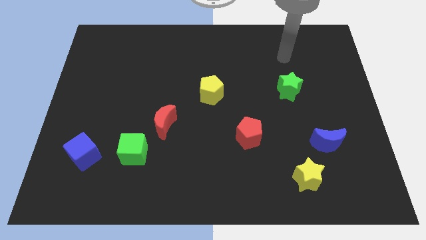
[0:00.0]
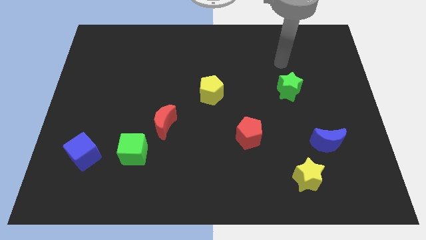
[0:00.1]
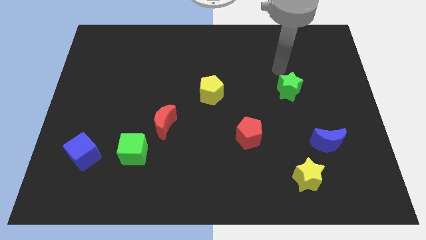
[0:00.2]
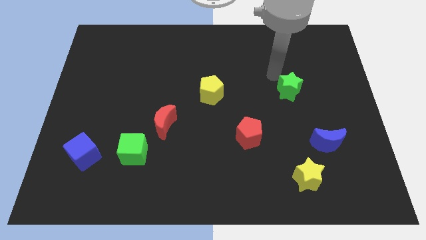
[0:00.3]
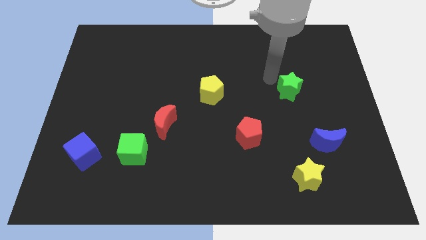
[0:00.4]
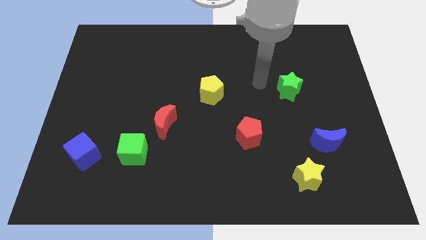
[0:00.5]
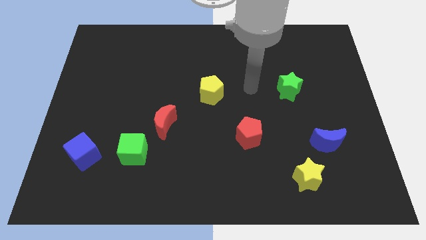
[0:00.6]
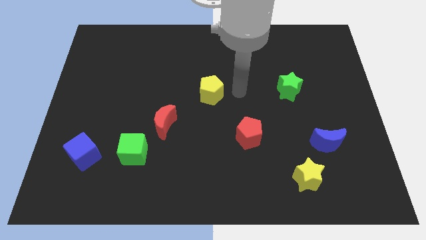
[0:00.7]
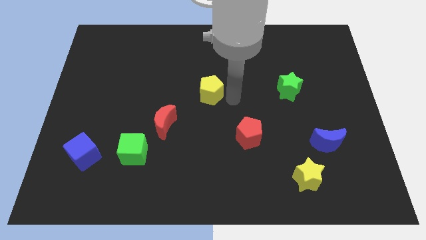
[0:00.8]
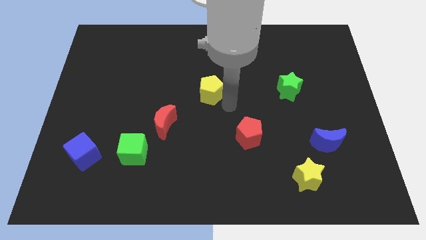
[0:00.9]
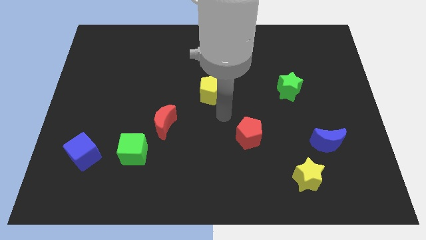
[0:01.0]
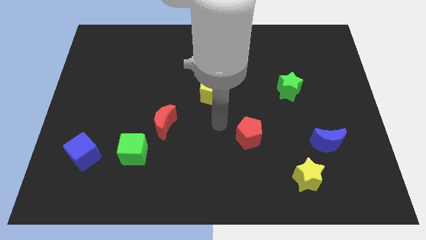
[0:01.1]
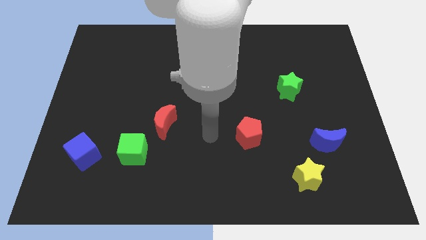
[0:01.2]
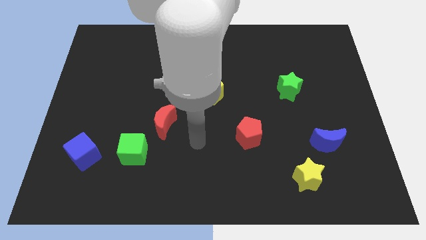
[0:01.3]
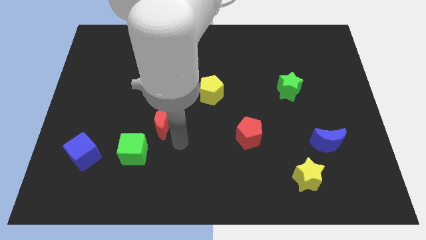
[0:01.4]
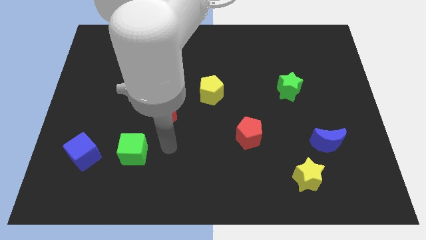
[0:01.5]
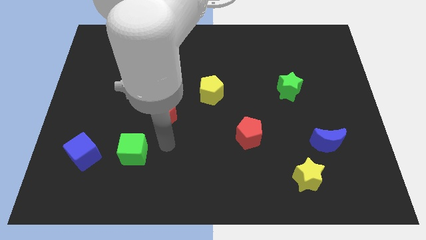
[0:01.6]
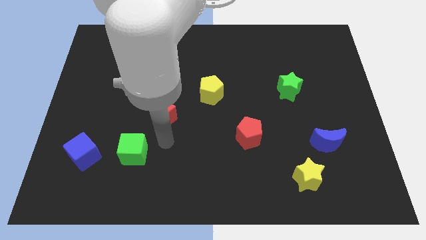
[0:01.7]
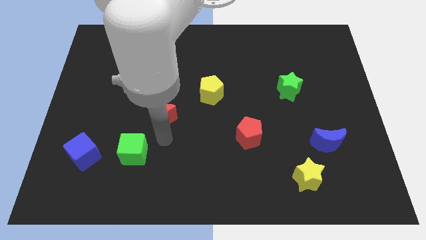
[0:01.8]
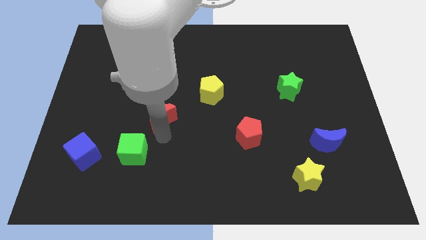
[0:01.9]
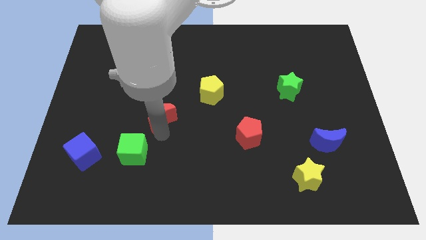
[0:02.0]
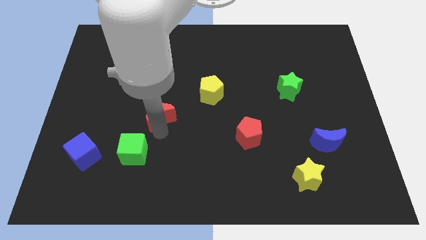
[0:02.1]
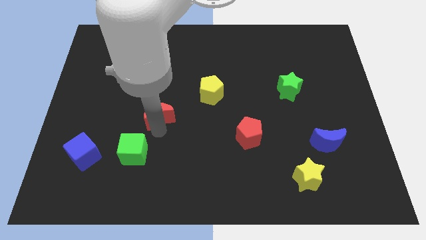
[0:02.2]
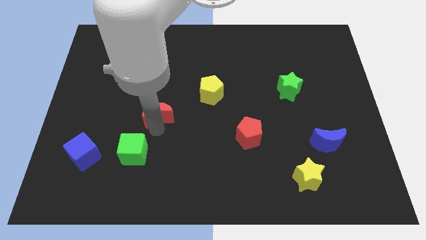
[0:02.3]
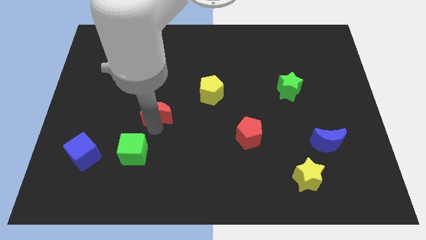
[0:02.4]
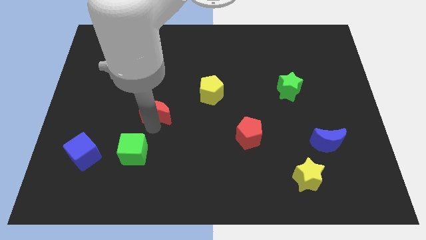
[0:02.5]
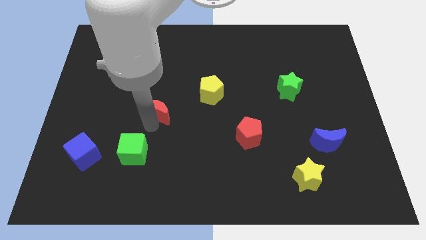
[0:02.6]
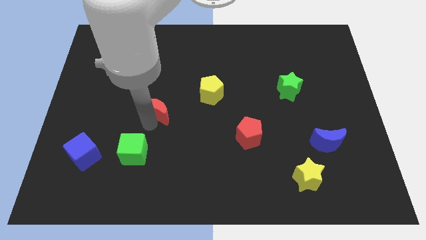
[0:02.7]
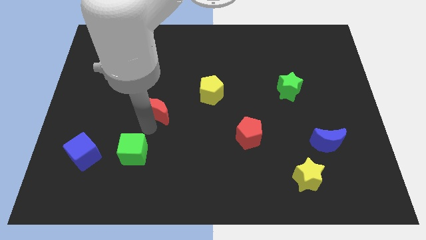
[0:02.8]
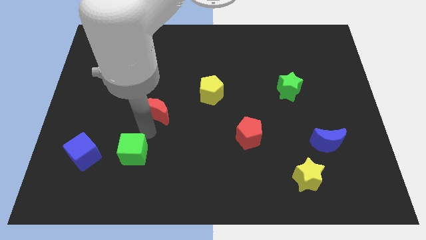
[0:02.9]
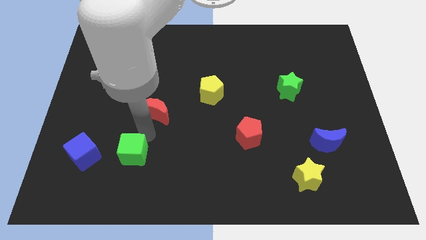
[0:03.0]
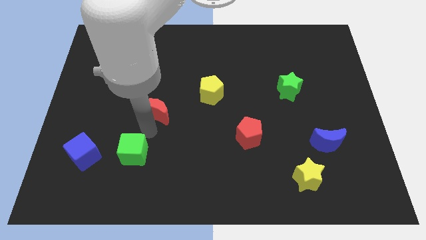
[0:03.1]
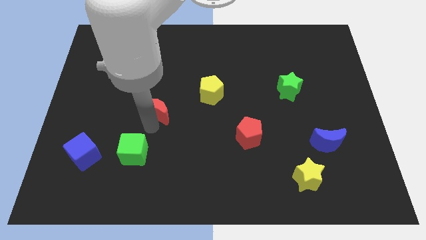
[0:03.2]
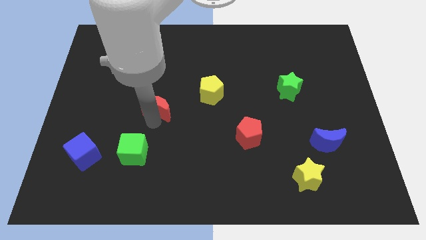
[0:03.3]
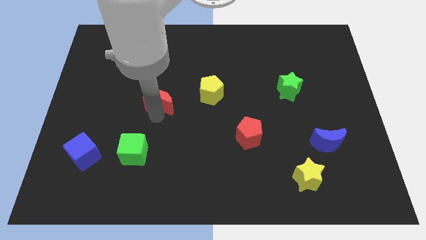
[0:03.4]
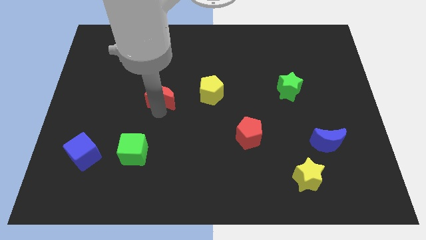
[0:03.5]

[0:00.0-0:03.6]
push the red moon up a little

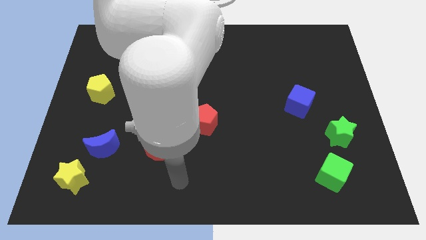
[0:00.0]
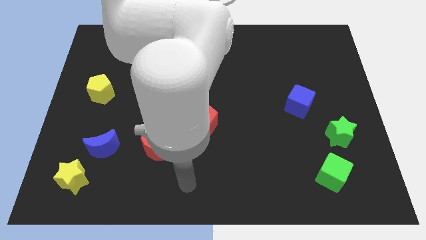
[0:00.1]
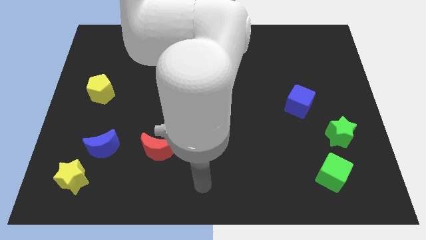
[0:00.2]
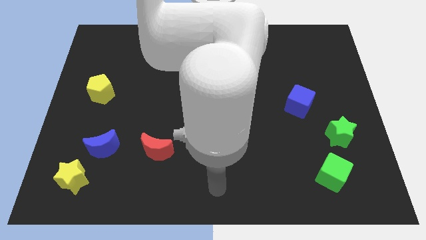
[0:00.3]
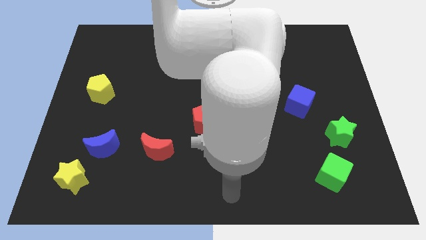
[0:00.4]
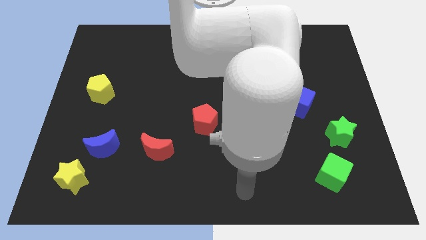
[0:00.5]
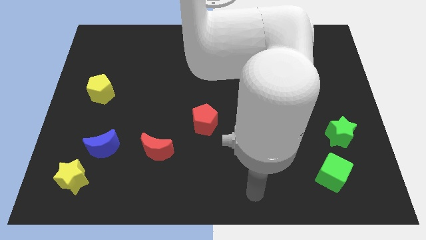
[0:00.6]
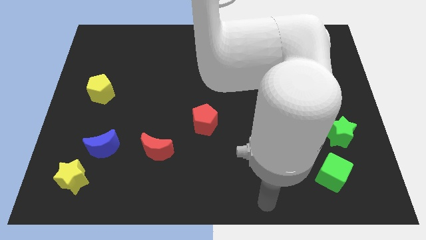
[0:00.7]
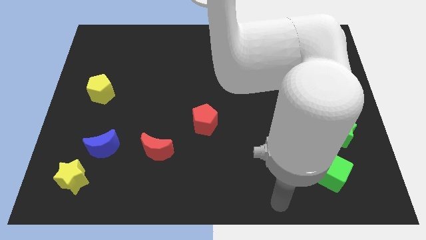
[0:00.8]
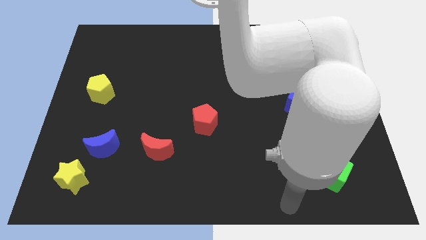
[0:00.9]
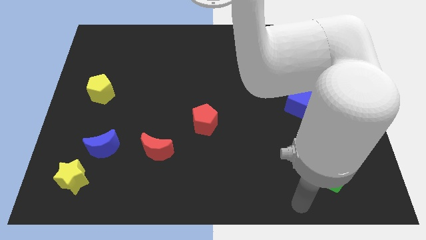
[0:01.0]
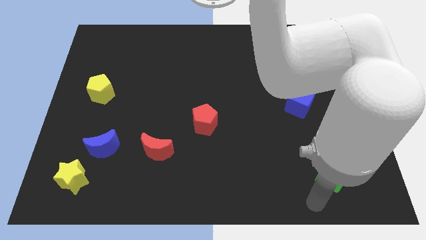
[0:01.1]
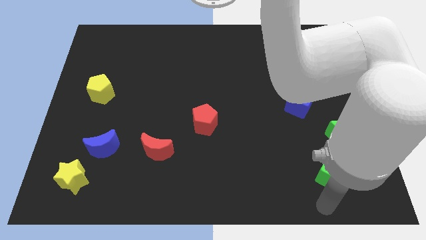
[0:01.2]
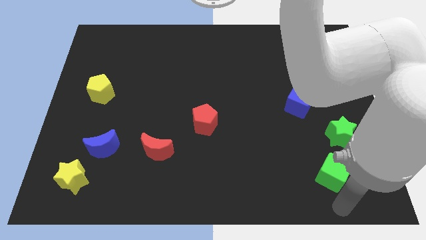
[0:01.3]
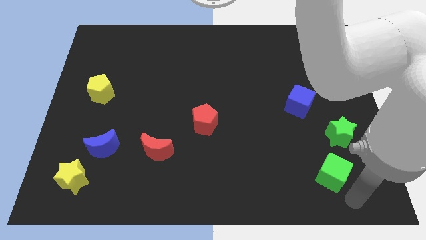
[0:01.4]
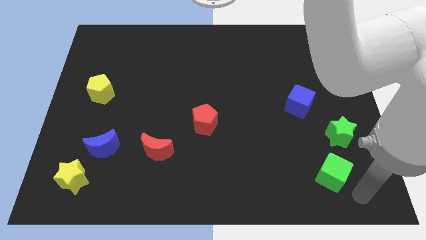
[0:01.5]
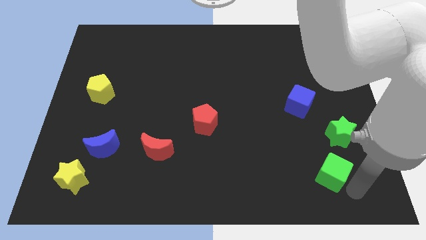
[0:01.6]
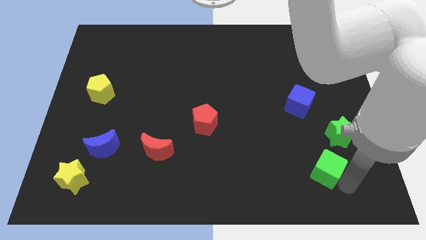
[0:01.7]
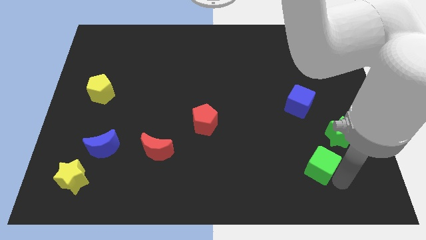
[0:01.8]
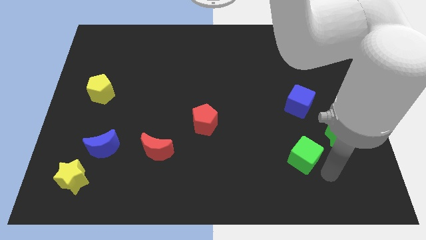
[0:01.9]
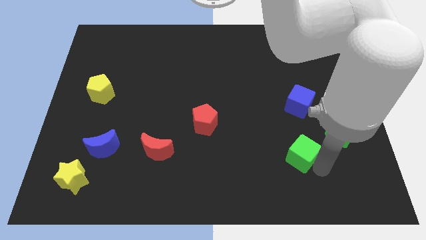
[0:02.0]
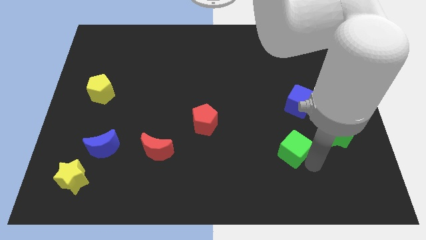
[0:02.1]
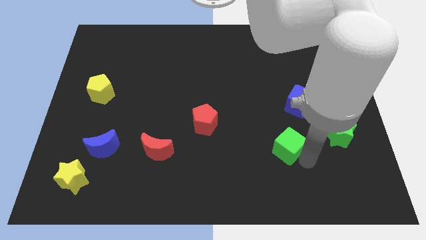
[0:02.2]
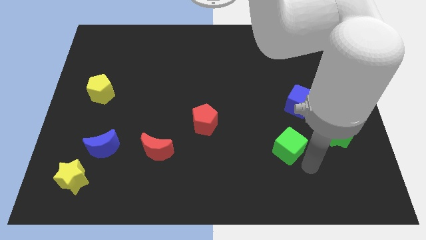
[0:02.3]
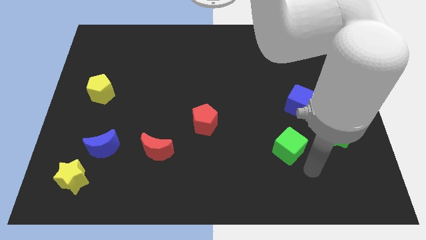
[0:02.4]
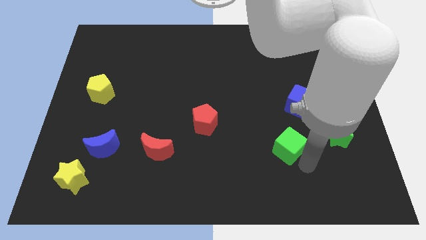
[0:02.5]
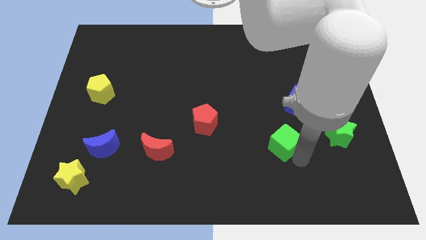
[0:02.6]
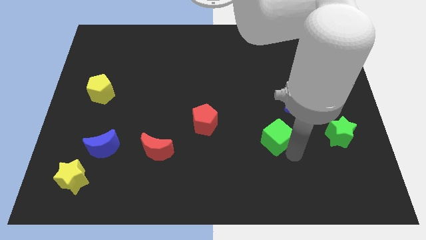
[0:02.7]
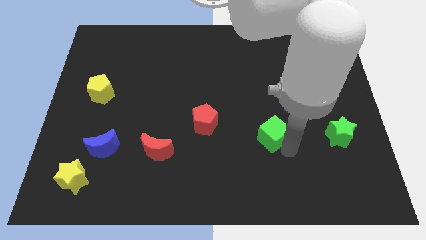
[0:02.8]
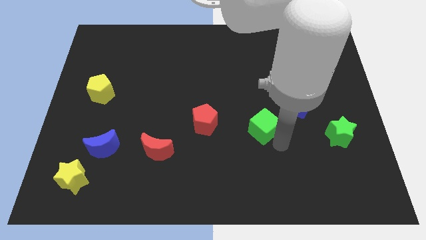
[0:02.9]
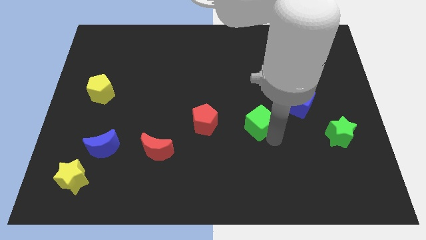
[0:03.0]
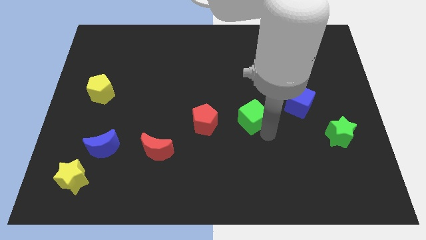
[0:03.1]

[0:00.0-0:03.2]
push the green cube upwards and then to the left

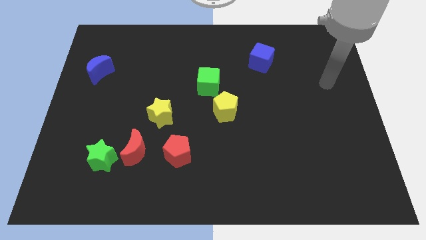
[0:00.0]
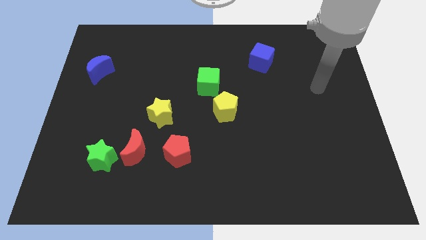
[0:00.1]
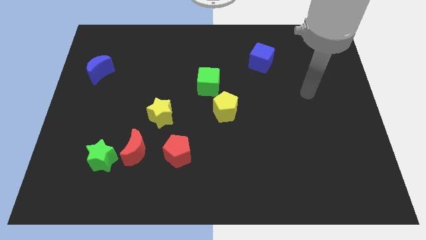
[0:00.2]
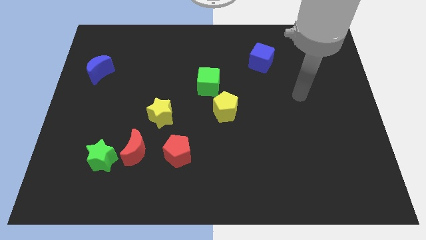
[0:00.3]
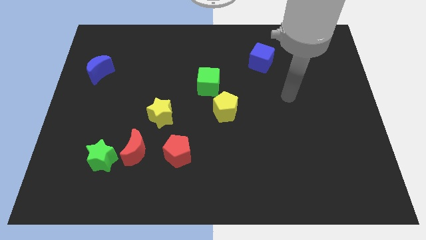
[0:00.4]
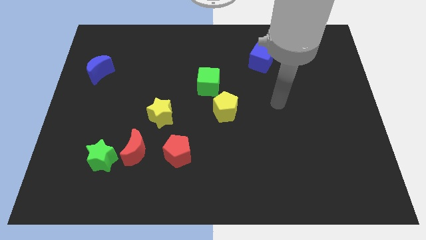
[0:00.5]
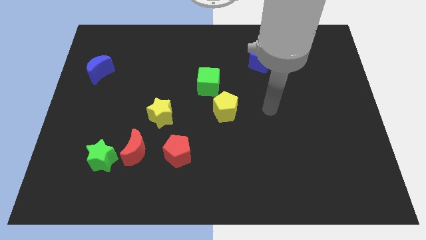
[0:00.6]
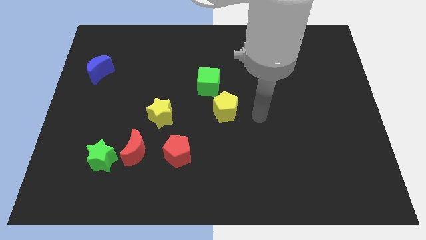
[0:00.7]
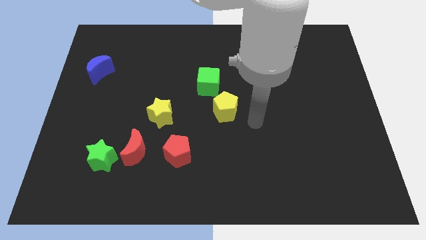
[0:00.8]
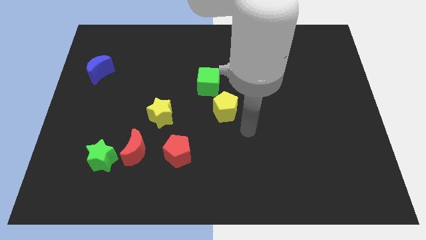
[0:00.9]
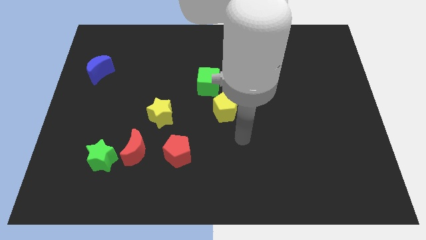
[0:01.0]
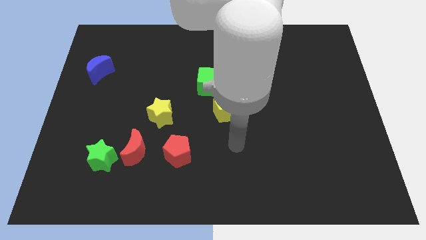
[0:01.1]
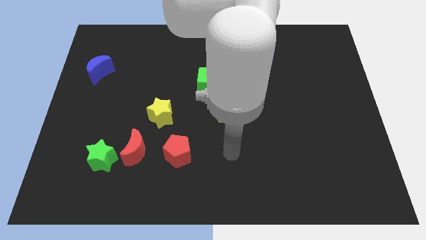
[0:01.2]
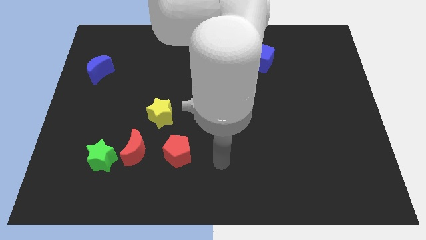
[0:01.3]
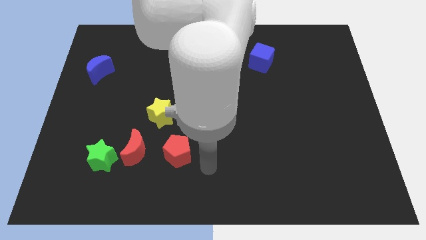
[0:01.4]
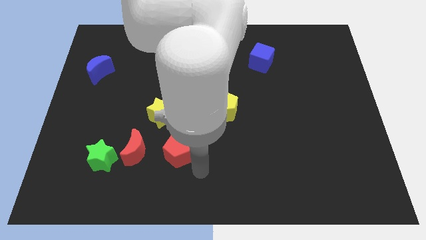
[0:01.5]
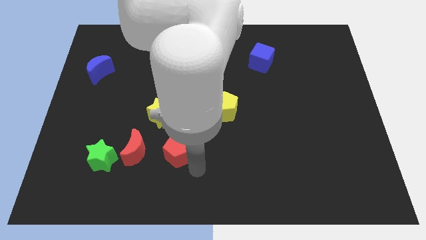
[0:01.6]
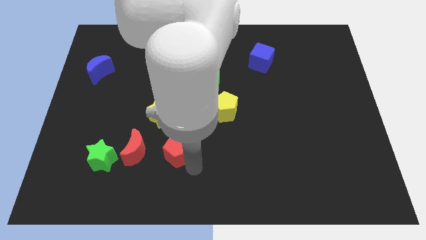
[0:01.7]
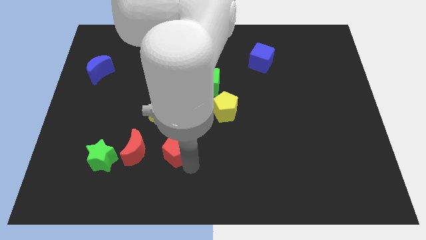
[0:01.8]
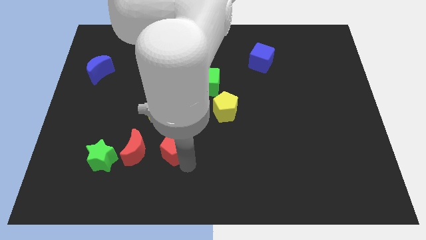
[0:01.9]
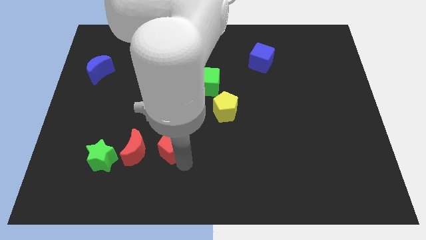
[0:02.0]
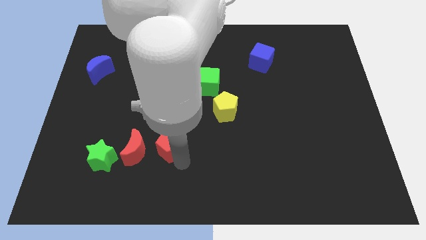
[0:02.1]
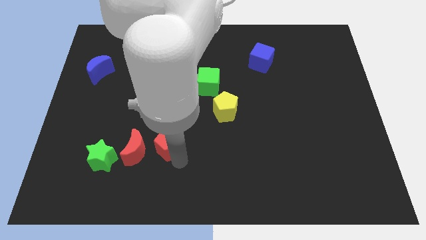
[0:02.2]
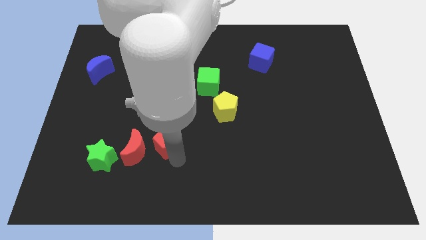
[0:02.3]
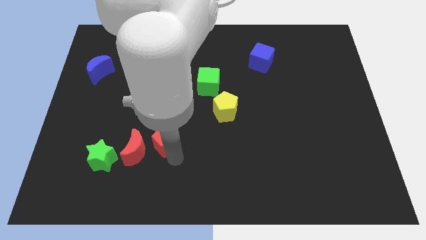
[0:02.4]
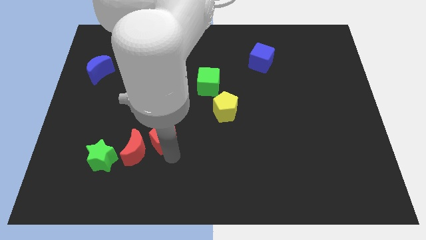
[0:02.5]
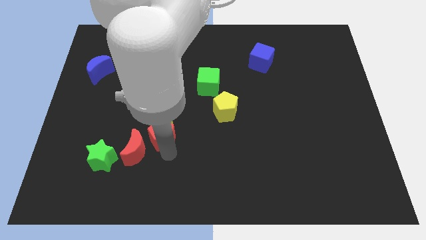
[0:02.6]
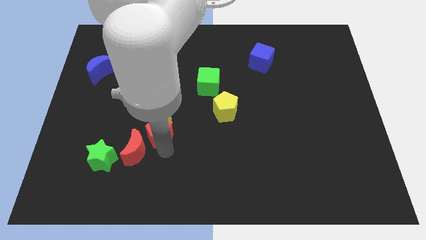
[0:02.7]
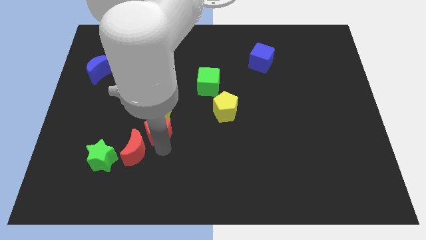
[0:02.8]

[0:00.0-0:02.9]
move the red pentagon upwards and then left slightly
